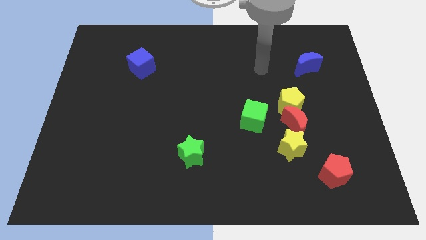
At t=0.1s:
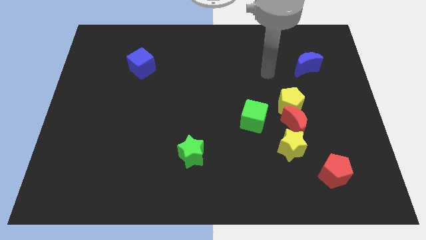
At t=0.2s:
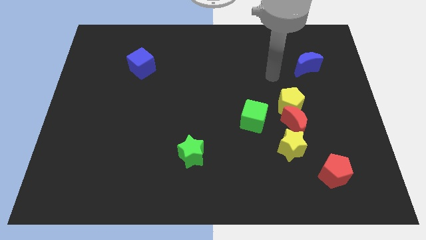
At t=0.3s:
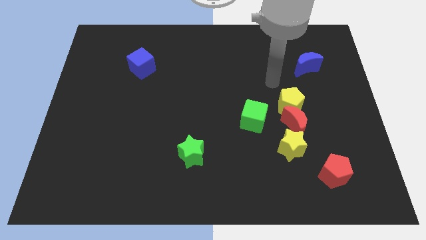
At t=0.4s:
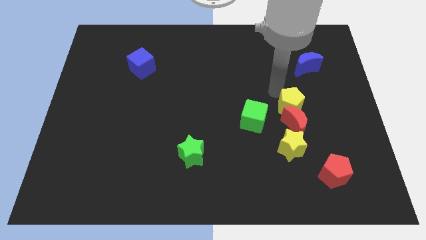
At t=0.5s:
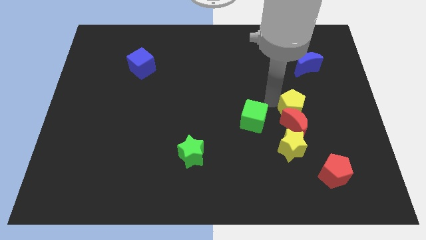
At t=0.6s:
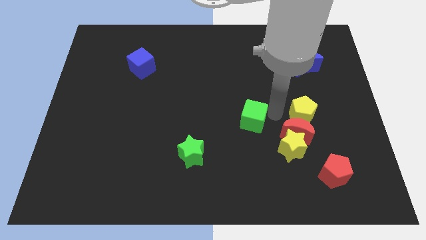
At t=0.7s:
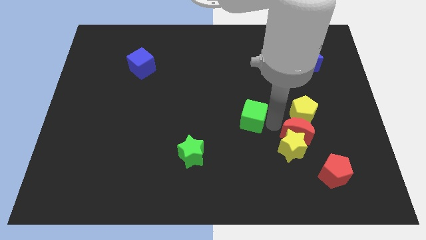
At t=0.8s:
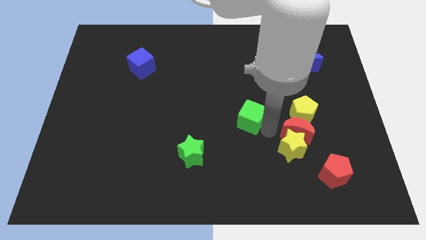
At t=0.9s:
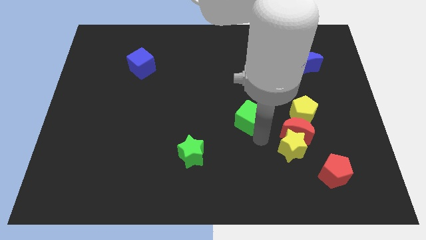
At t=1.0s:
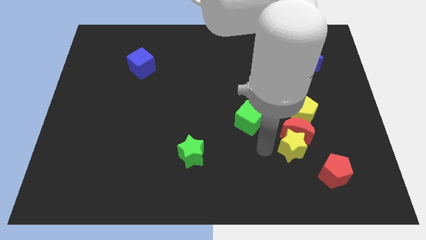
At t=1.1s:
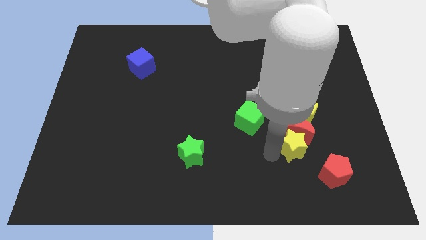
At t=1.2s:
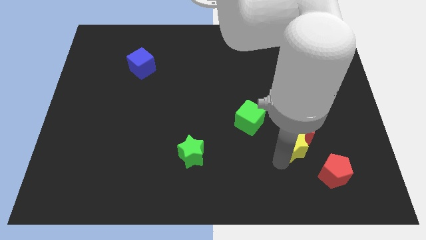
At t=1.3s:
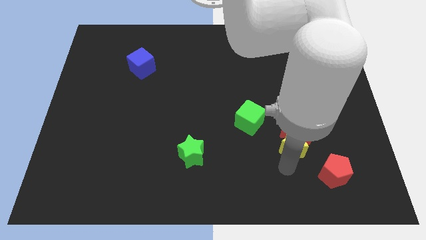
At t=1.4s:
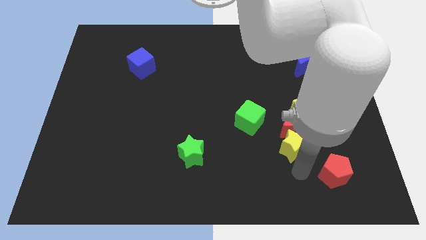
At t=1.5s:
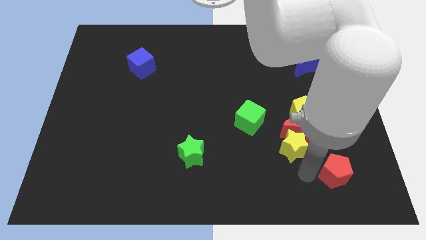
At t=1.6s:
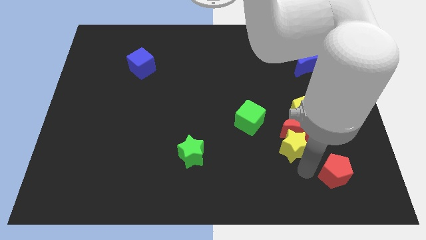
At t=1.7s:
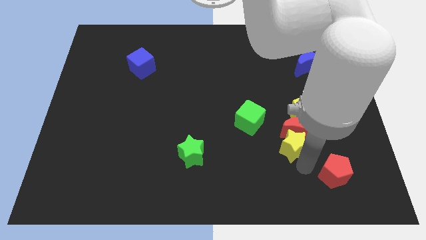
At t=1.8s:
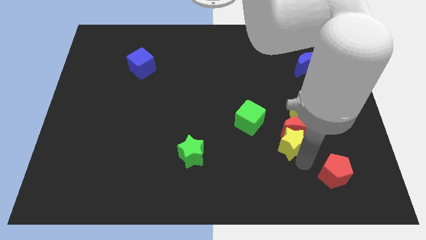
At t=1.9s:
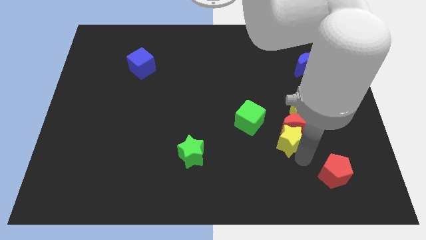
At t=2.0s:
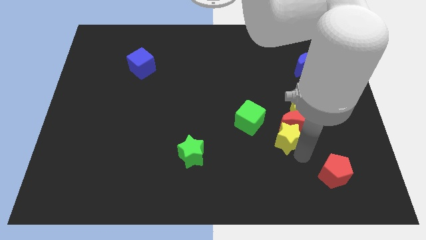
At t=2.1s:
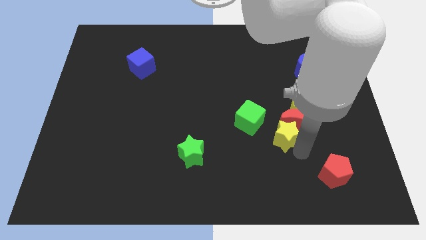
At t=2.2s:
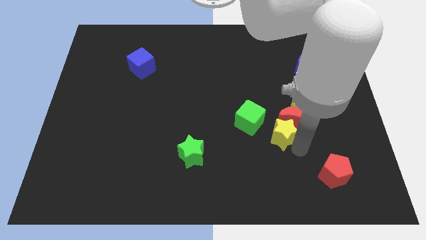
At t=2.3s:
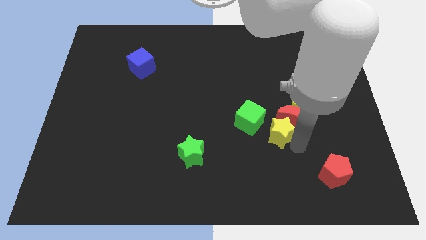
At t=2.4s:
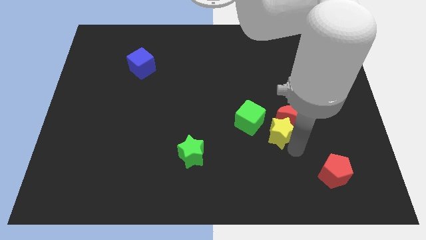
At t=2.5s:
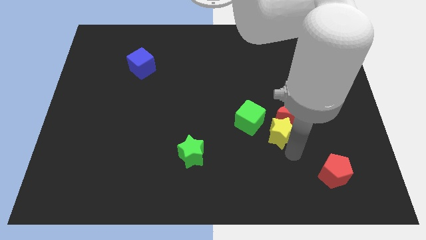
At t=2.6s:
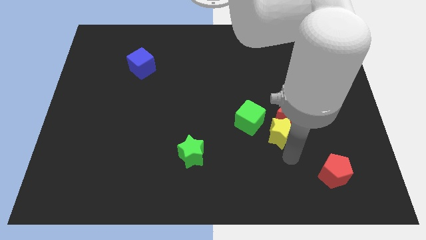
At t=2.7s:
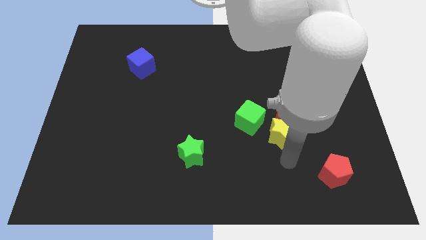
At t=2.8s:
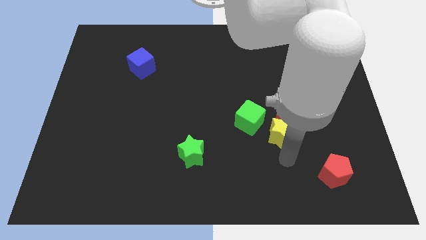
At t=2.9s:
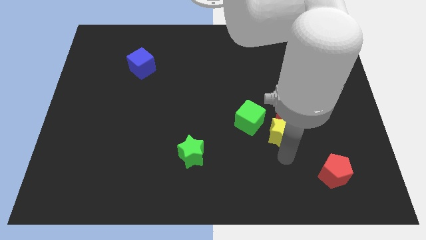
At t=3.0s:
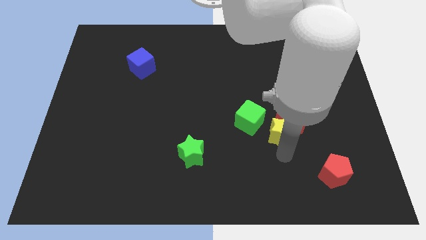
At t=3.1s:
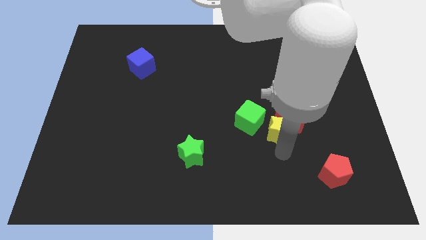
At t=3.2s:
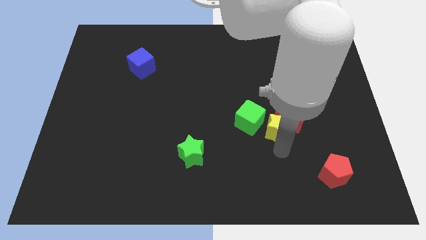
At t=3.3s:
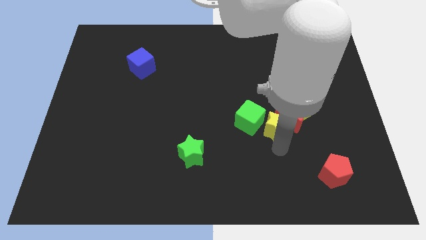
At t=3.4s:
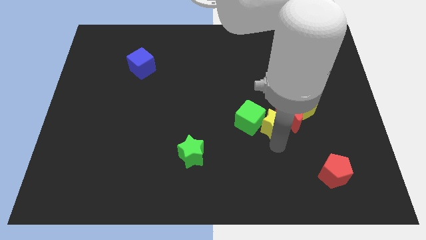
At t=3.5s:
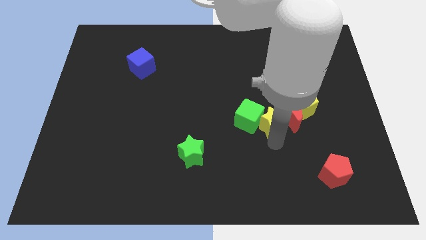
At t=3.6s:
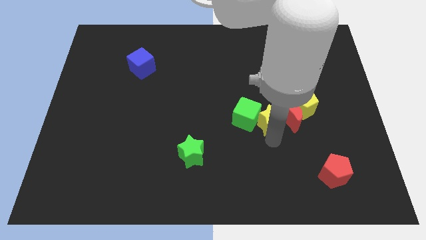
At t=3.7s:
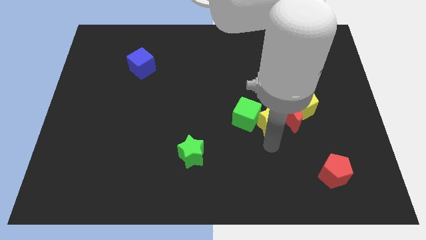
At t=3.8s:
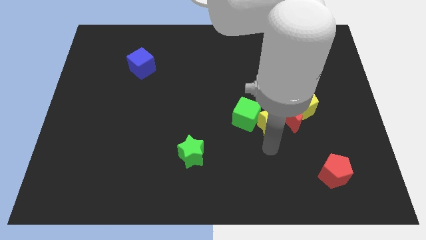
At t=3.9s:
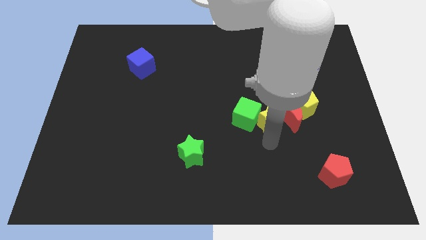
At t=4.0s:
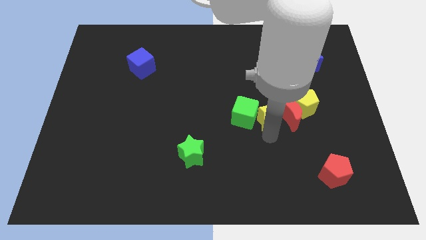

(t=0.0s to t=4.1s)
slightly move the yellow star up

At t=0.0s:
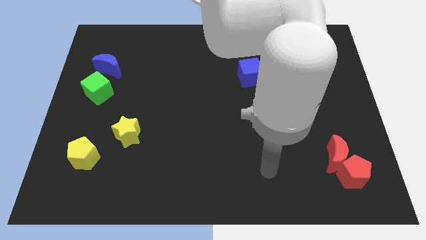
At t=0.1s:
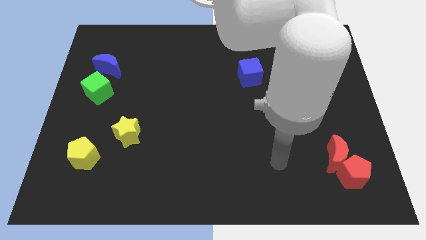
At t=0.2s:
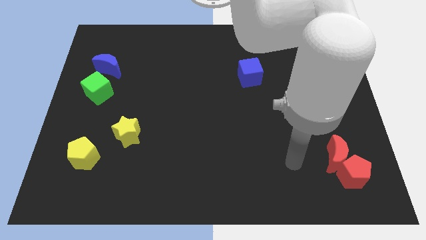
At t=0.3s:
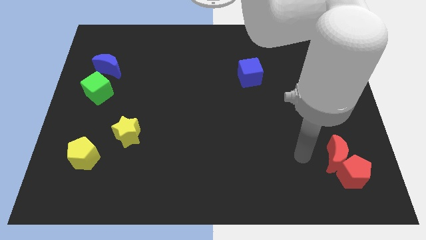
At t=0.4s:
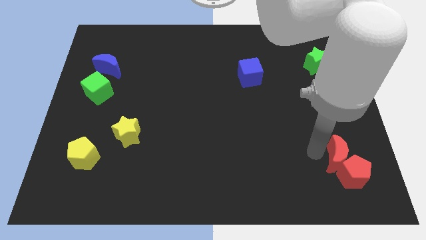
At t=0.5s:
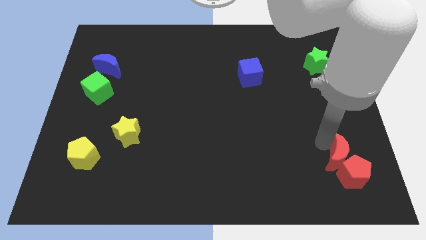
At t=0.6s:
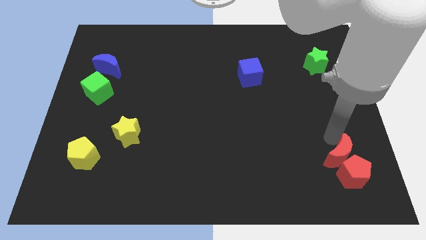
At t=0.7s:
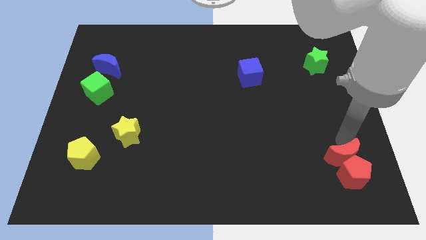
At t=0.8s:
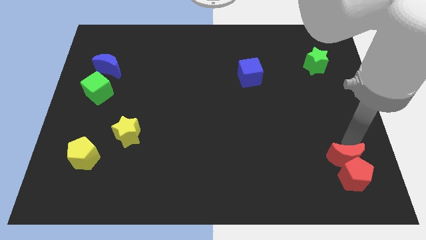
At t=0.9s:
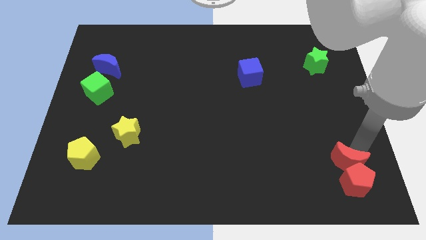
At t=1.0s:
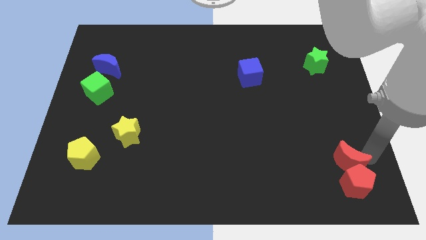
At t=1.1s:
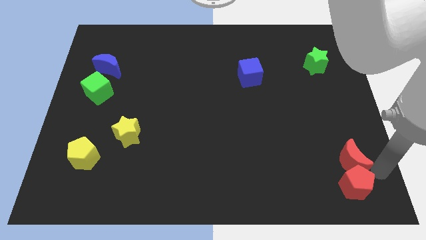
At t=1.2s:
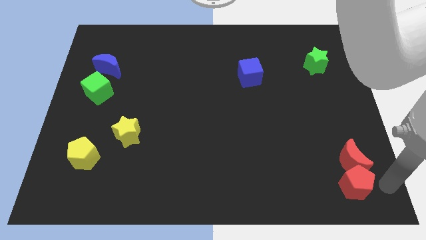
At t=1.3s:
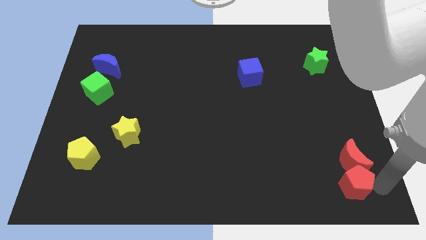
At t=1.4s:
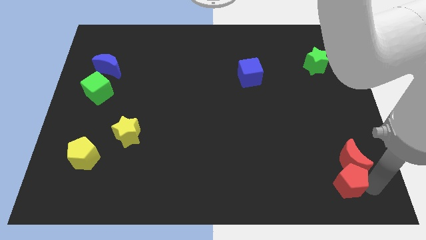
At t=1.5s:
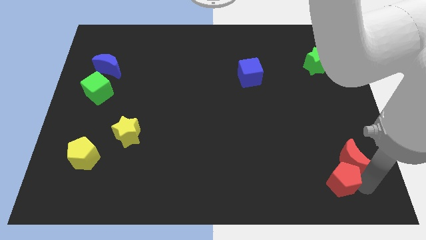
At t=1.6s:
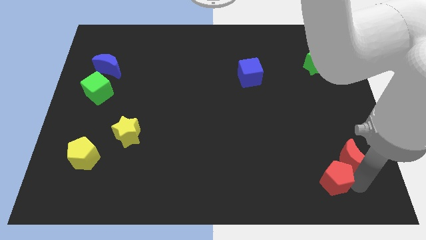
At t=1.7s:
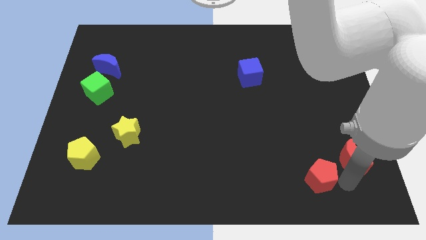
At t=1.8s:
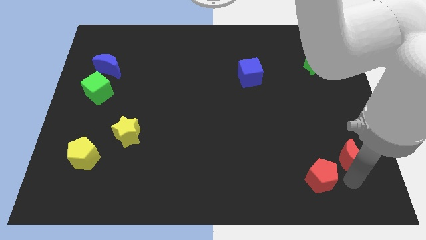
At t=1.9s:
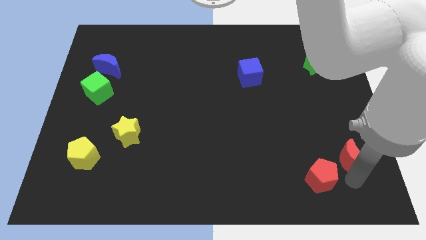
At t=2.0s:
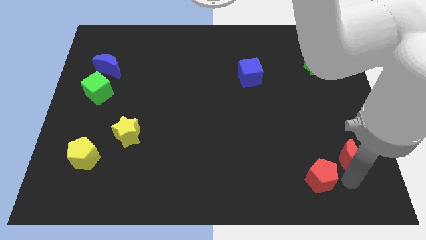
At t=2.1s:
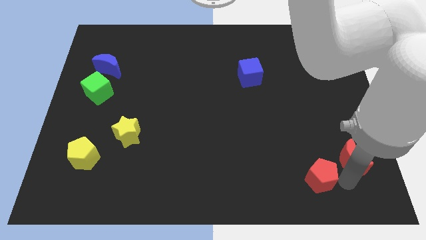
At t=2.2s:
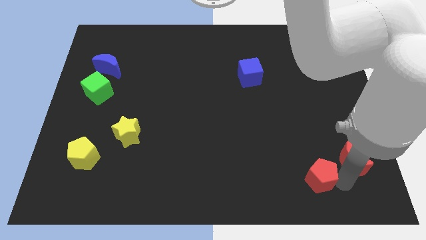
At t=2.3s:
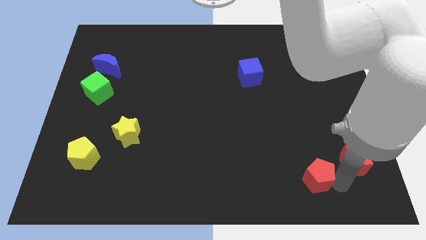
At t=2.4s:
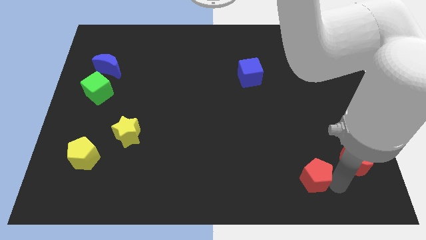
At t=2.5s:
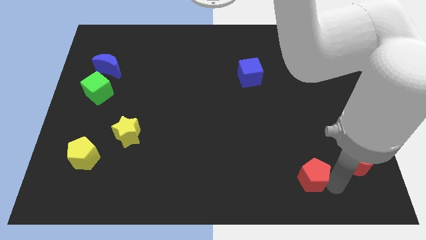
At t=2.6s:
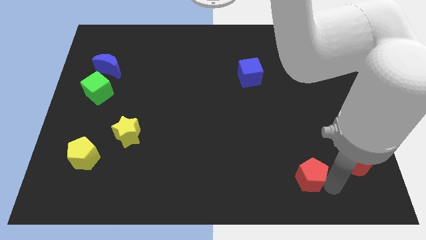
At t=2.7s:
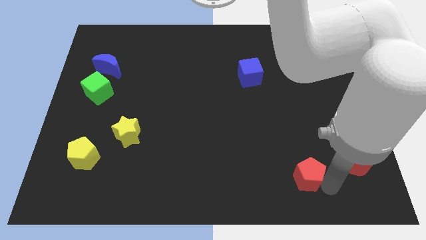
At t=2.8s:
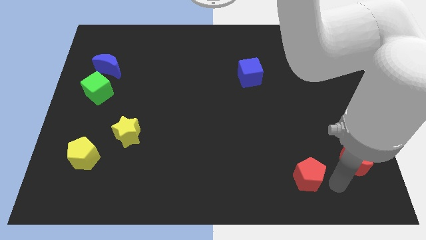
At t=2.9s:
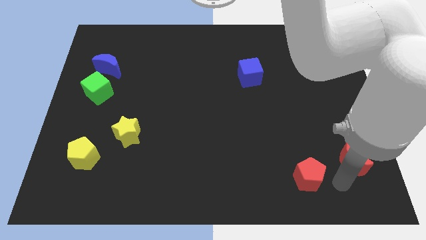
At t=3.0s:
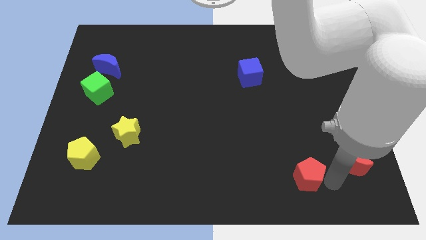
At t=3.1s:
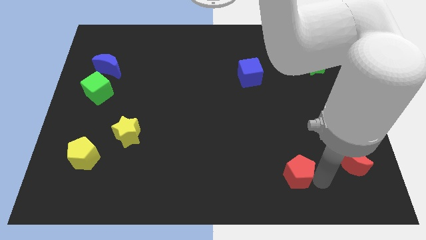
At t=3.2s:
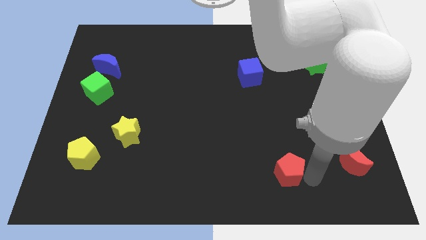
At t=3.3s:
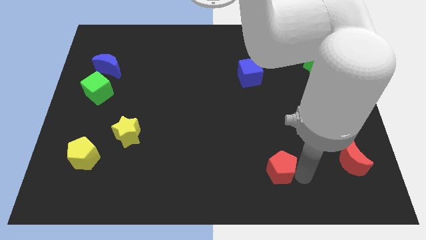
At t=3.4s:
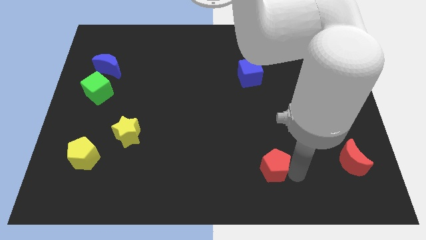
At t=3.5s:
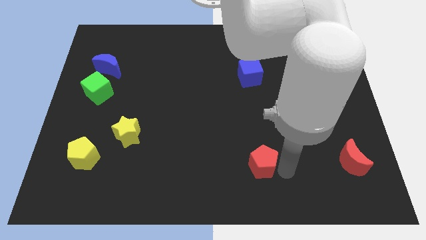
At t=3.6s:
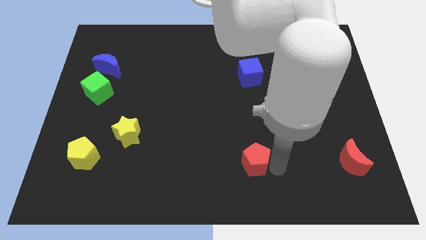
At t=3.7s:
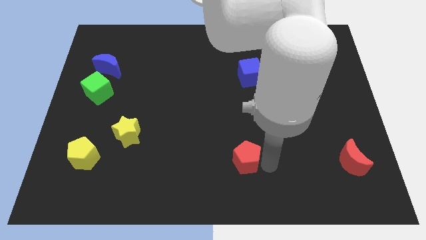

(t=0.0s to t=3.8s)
push the red pentagon left

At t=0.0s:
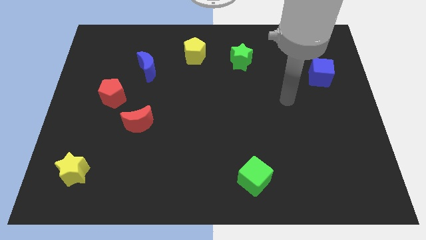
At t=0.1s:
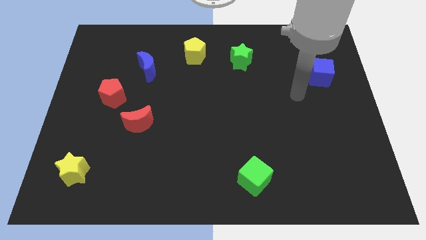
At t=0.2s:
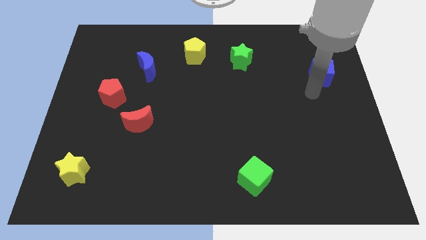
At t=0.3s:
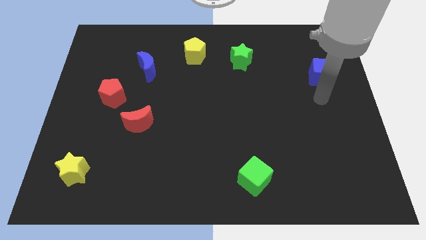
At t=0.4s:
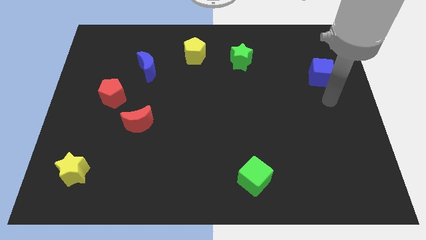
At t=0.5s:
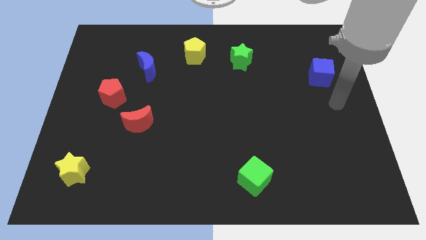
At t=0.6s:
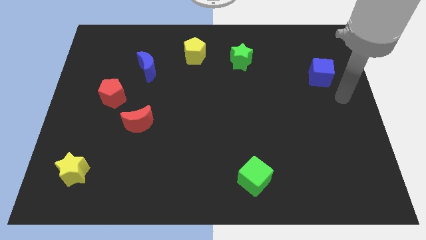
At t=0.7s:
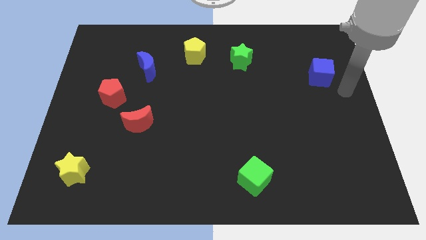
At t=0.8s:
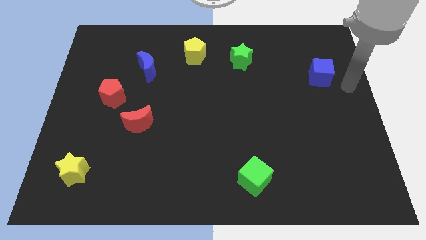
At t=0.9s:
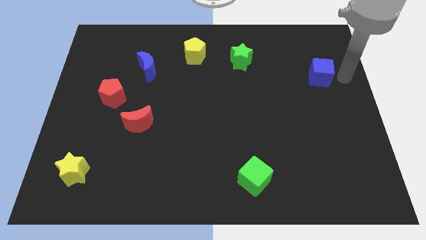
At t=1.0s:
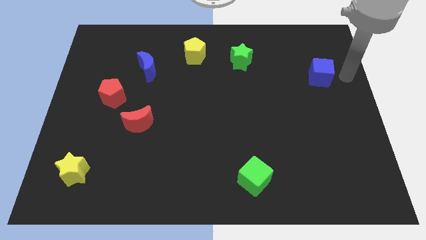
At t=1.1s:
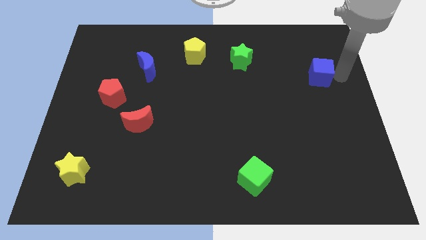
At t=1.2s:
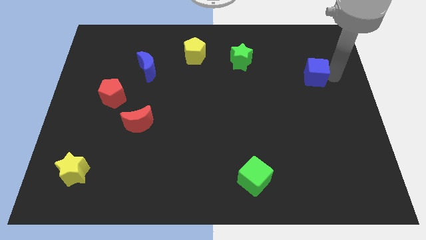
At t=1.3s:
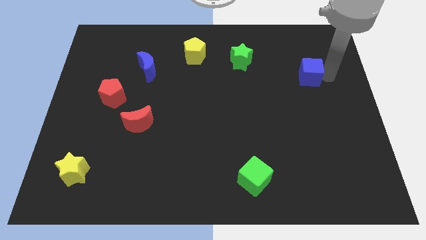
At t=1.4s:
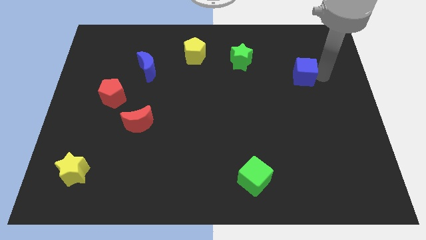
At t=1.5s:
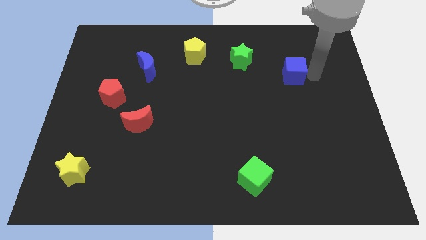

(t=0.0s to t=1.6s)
move the blue cube to the left a little bit
